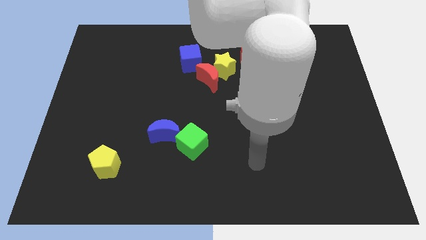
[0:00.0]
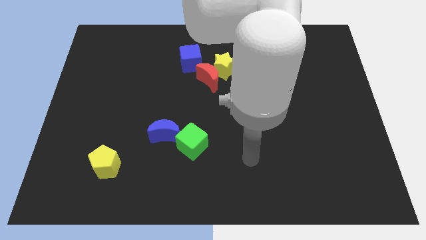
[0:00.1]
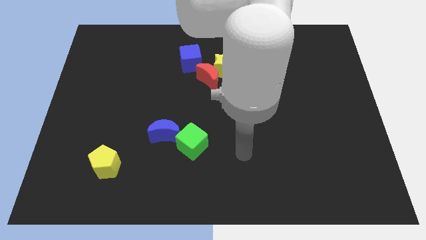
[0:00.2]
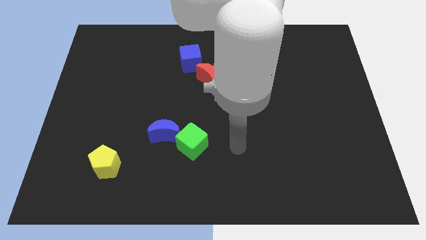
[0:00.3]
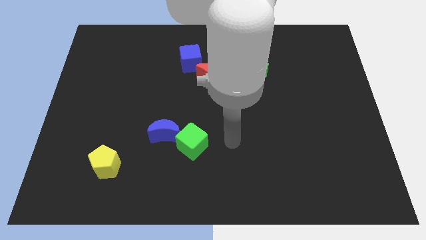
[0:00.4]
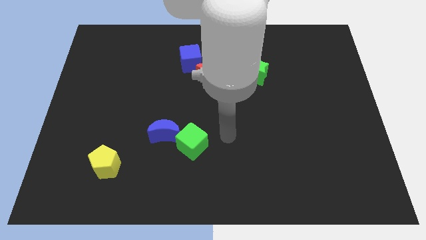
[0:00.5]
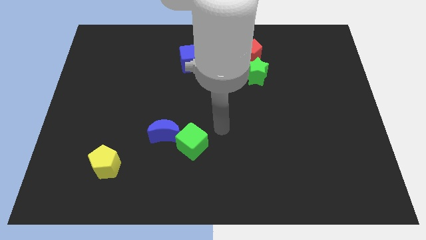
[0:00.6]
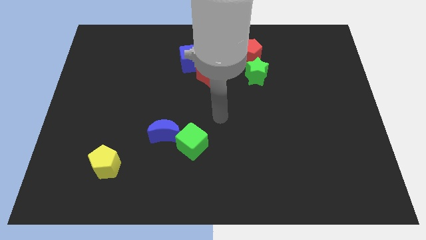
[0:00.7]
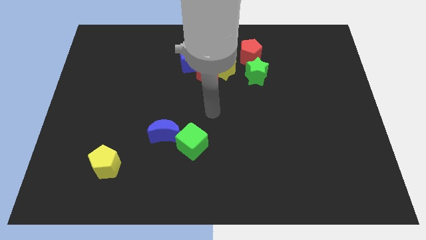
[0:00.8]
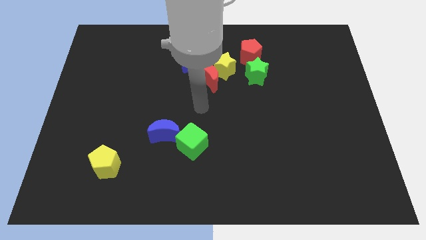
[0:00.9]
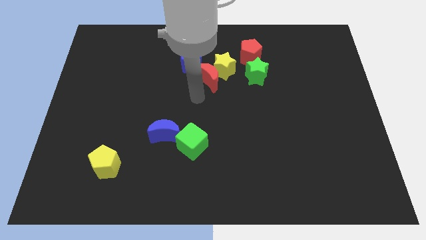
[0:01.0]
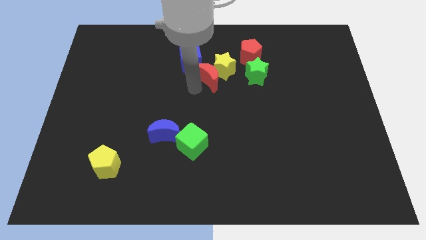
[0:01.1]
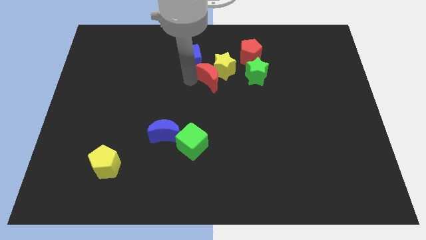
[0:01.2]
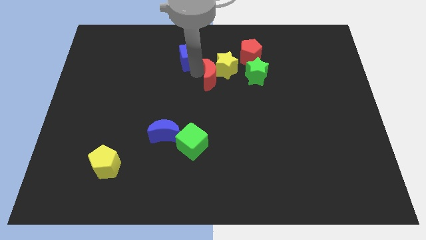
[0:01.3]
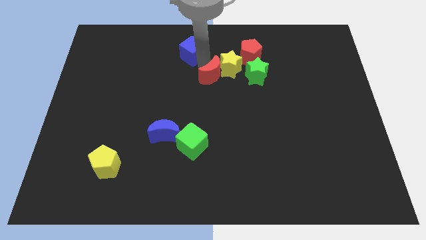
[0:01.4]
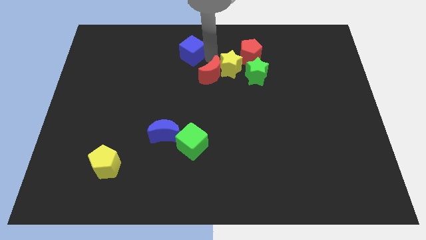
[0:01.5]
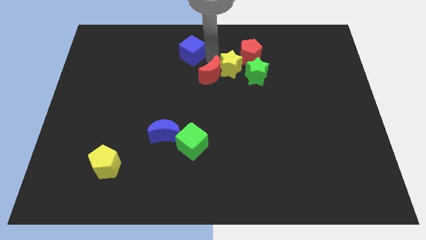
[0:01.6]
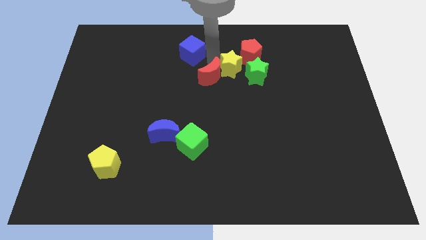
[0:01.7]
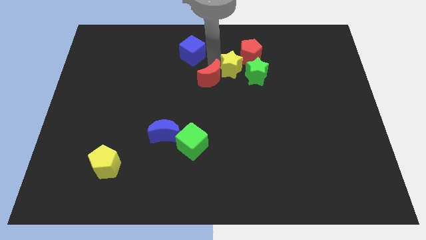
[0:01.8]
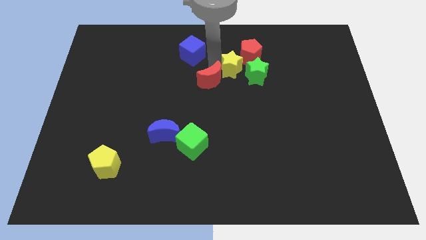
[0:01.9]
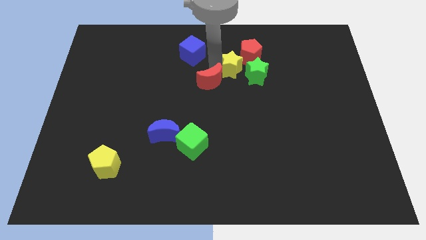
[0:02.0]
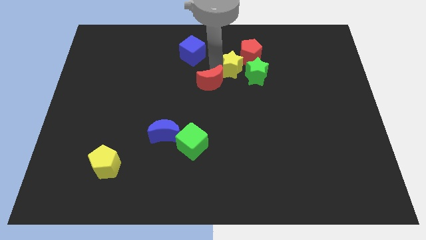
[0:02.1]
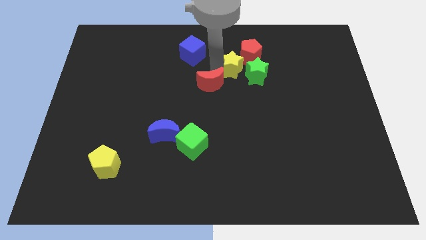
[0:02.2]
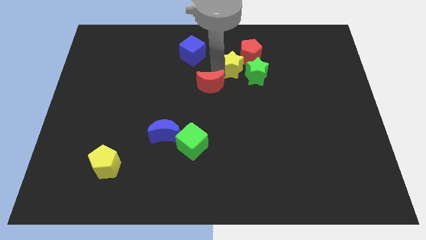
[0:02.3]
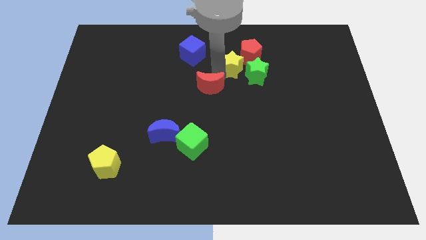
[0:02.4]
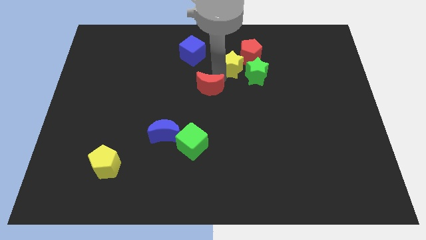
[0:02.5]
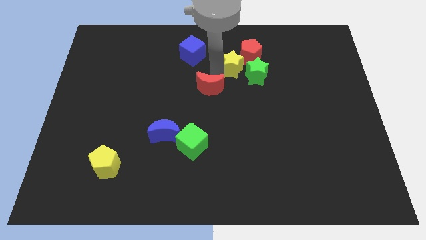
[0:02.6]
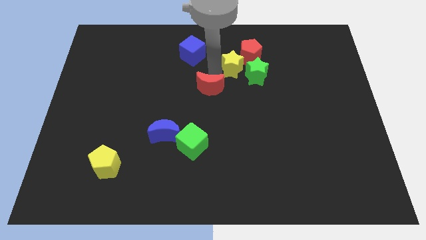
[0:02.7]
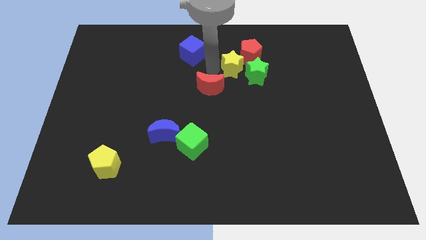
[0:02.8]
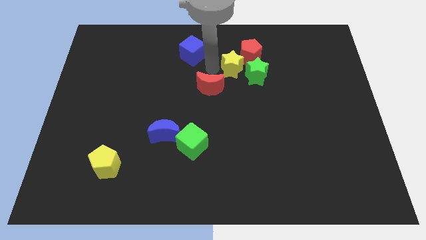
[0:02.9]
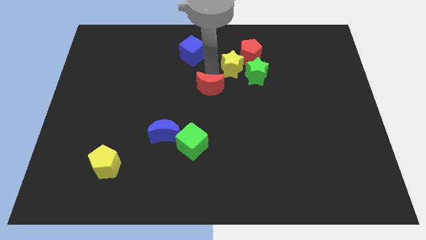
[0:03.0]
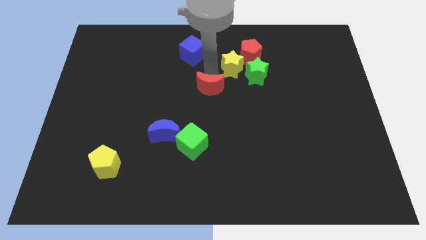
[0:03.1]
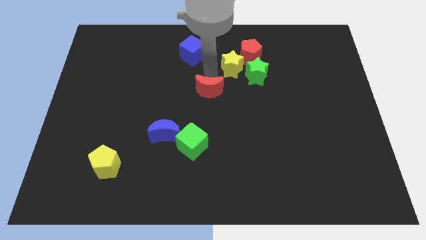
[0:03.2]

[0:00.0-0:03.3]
pull the red moon apart from the yellow star and blue cube

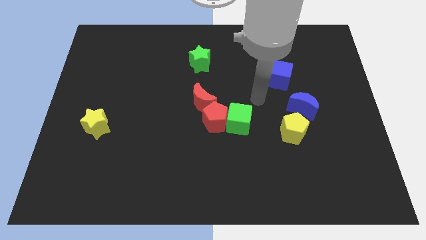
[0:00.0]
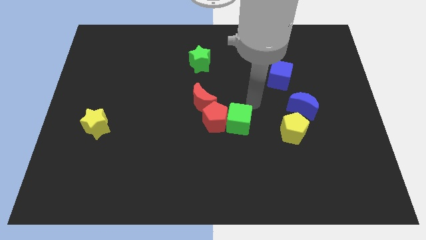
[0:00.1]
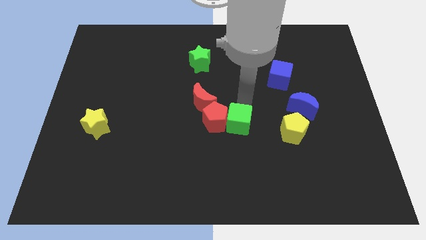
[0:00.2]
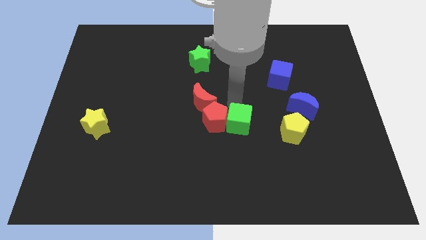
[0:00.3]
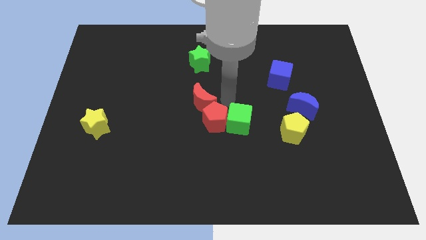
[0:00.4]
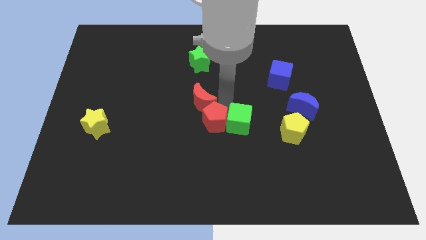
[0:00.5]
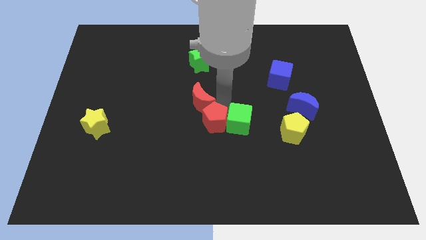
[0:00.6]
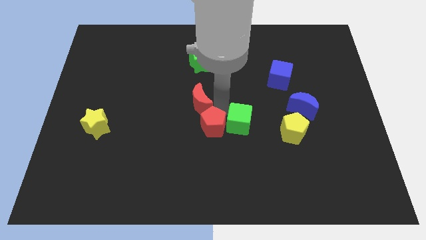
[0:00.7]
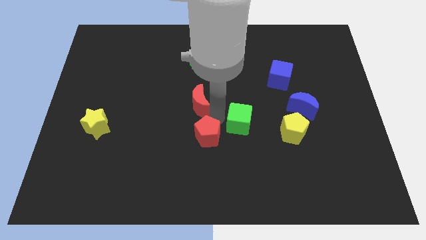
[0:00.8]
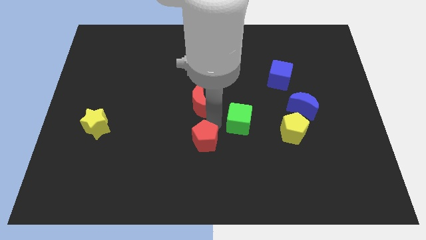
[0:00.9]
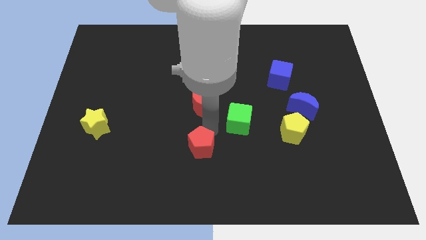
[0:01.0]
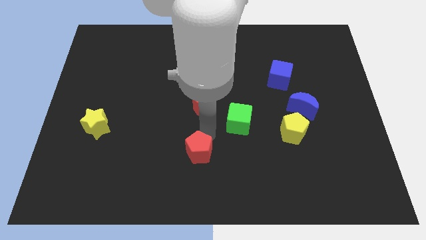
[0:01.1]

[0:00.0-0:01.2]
move the red pentagon away from the green cube and red moon

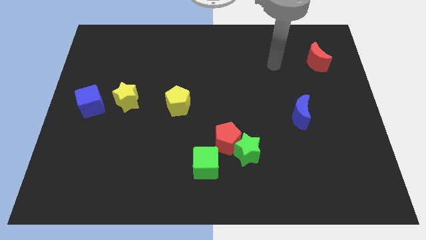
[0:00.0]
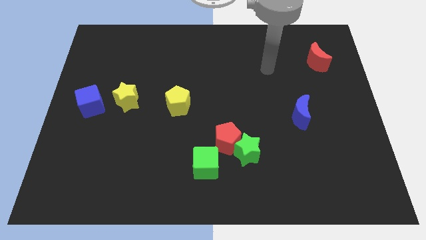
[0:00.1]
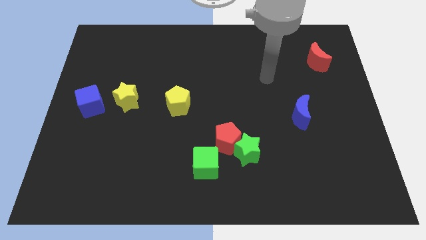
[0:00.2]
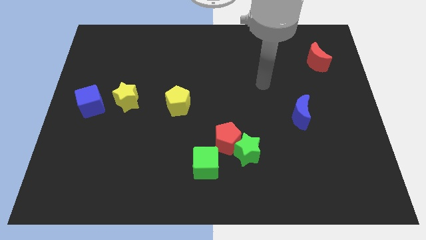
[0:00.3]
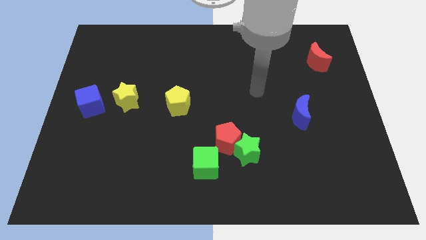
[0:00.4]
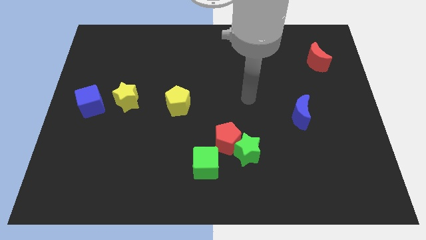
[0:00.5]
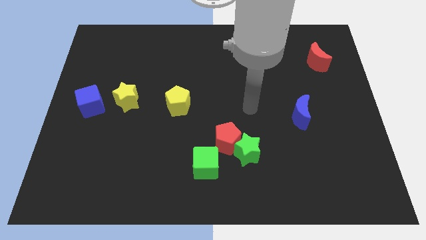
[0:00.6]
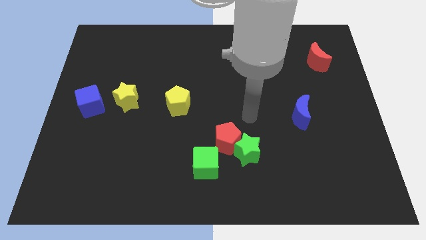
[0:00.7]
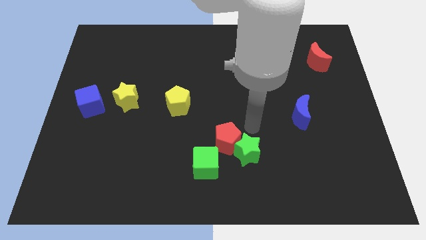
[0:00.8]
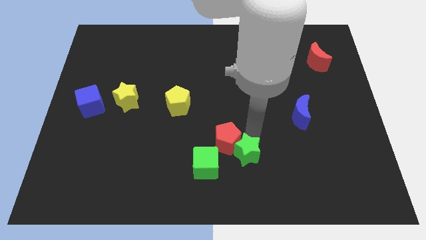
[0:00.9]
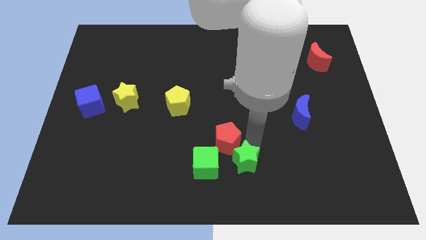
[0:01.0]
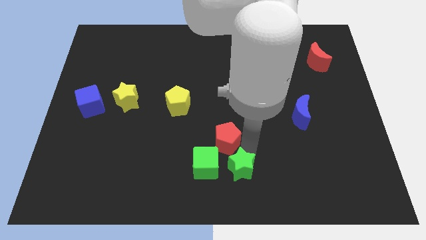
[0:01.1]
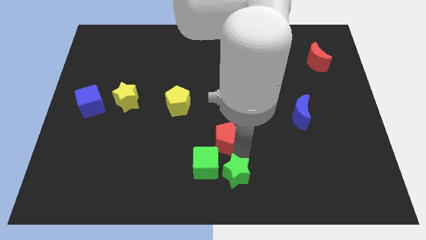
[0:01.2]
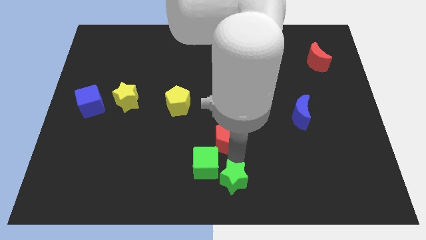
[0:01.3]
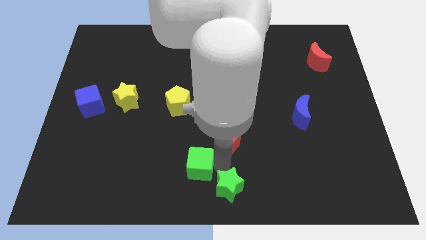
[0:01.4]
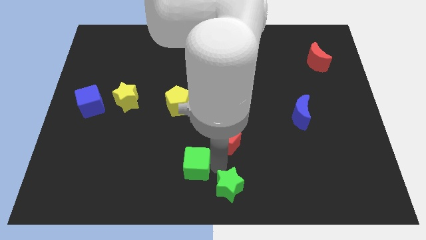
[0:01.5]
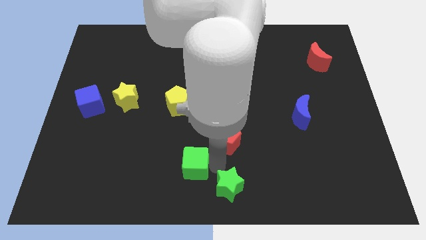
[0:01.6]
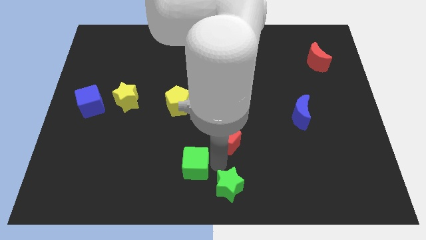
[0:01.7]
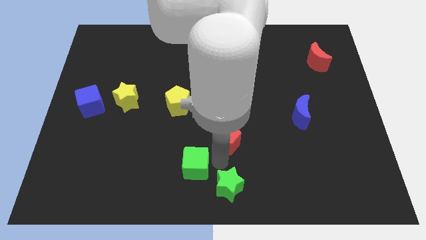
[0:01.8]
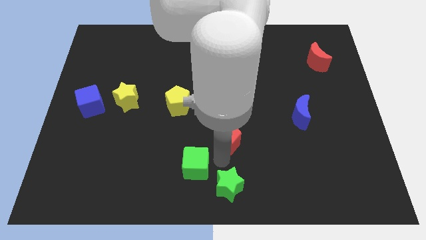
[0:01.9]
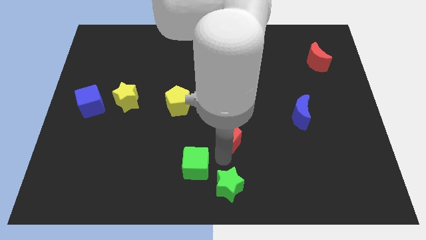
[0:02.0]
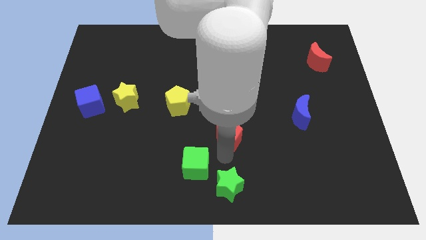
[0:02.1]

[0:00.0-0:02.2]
pull the red pentagon apart from the green star and green cube

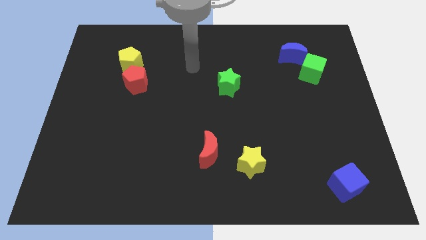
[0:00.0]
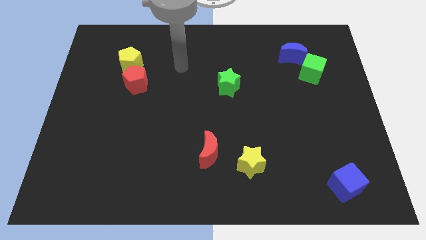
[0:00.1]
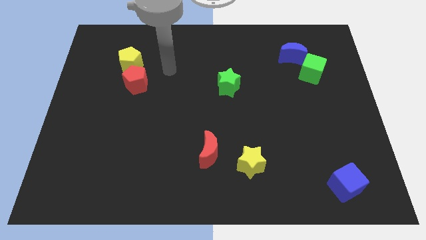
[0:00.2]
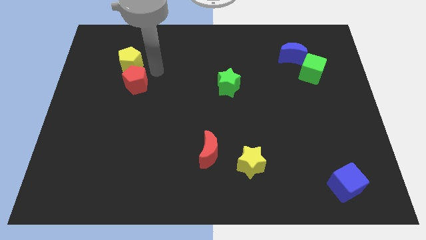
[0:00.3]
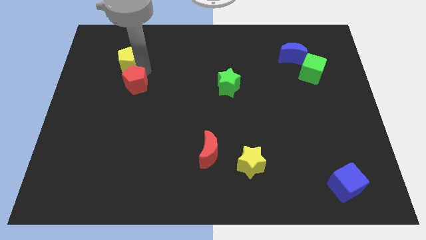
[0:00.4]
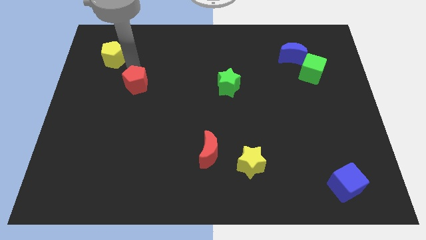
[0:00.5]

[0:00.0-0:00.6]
move the red pentagon away from the yellow pentagon

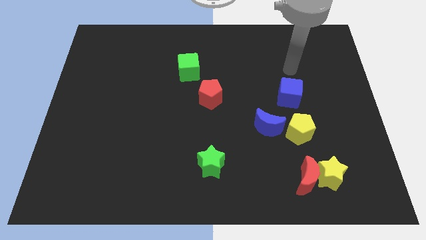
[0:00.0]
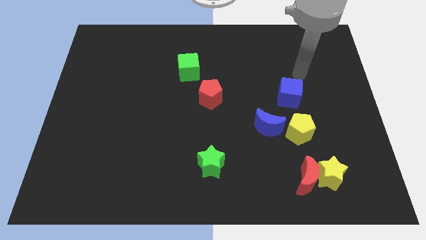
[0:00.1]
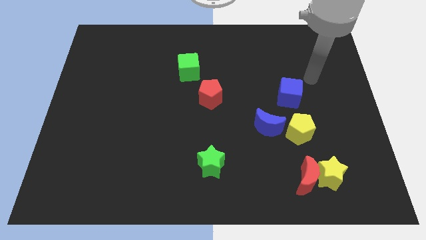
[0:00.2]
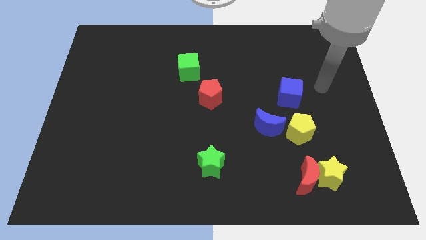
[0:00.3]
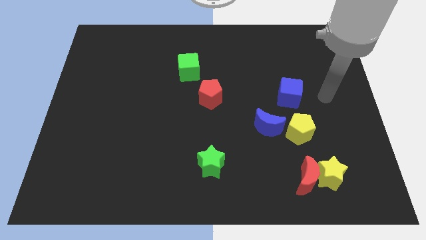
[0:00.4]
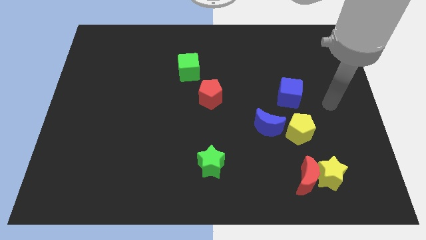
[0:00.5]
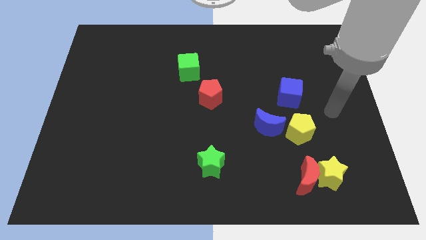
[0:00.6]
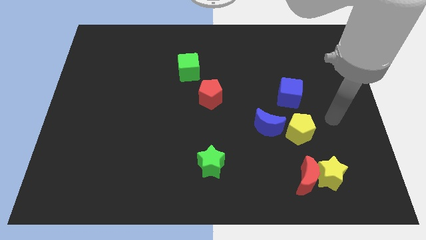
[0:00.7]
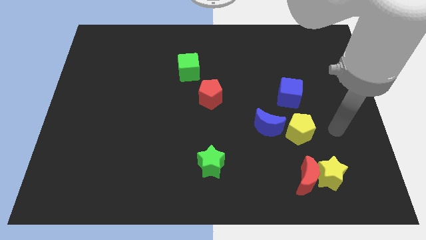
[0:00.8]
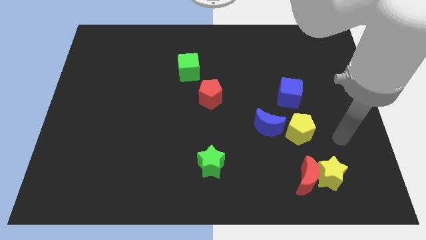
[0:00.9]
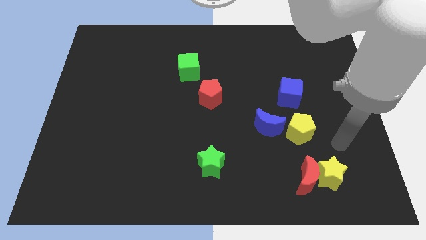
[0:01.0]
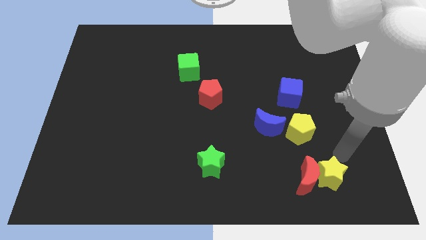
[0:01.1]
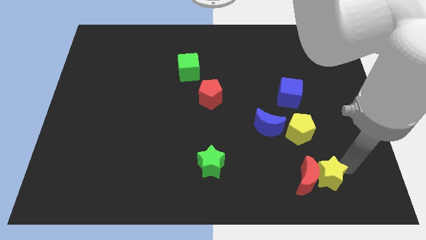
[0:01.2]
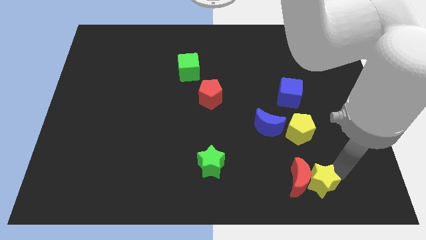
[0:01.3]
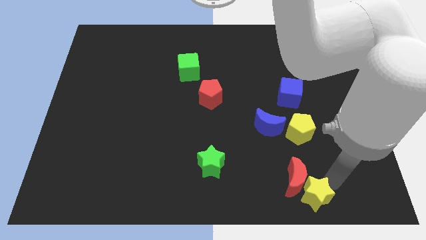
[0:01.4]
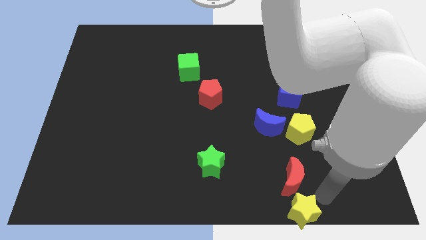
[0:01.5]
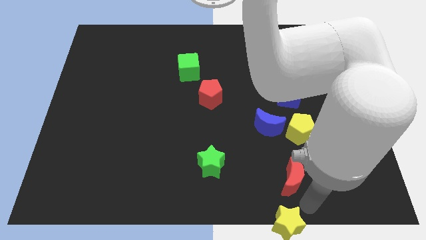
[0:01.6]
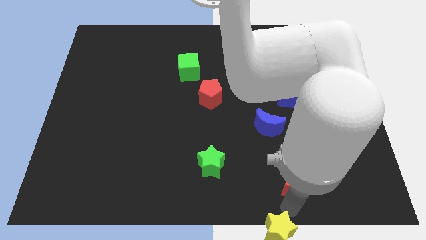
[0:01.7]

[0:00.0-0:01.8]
separate the red moon from the yellow star

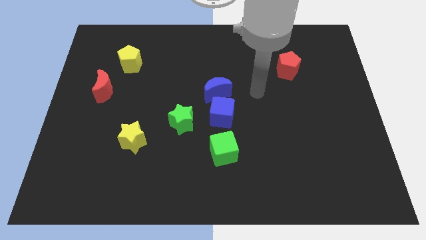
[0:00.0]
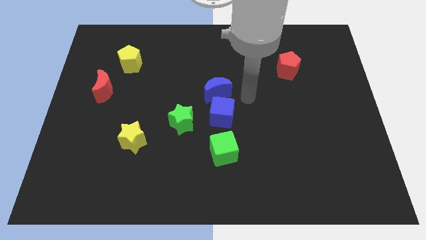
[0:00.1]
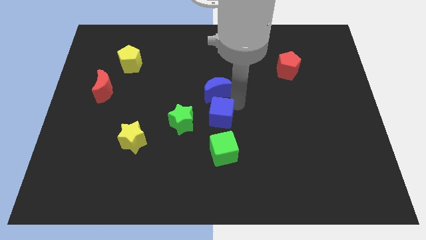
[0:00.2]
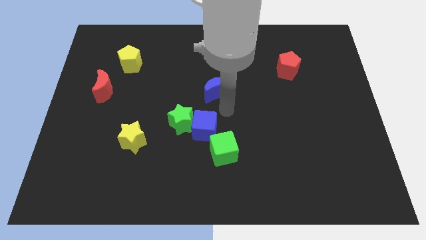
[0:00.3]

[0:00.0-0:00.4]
move the blue moon away from the blue cube

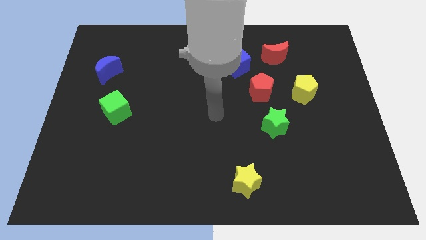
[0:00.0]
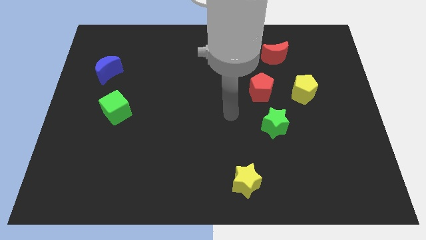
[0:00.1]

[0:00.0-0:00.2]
pull the yellow pentagon apart from the red pentagon
